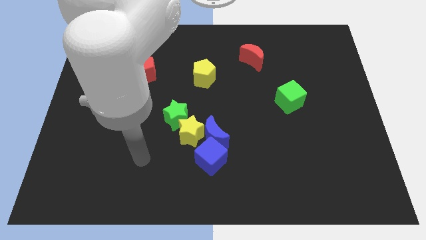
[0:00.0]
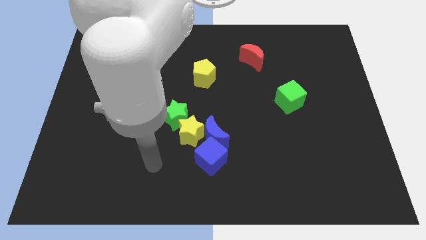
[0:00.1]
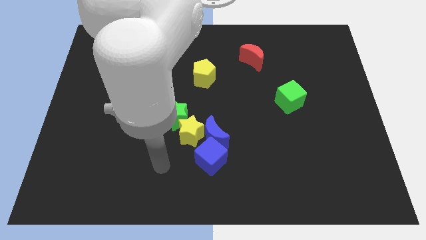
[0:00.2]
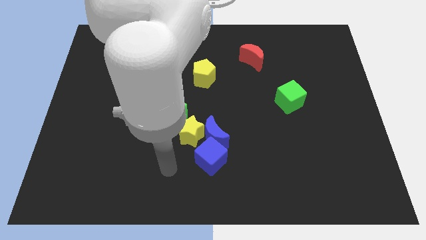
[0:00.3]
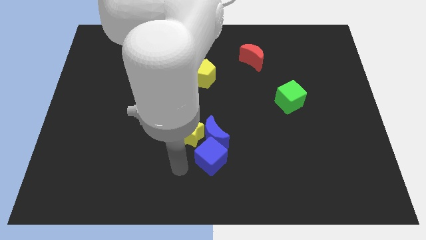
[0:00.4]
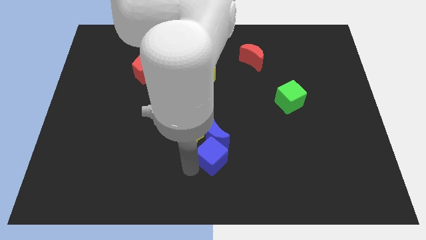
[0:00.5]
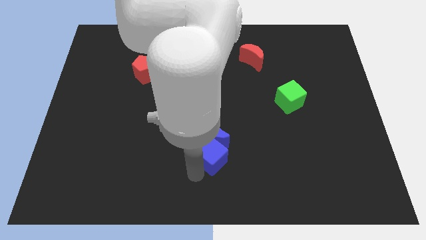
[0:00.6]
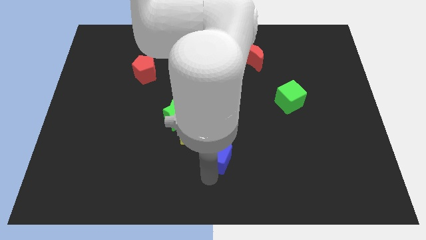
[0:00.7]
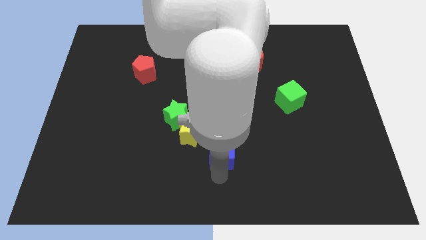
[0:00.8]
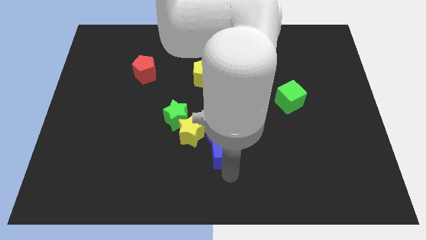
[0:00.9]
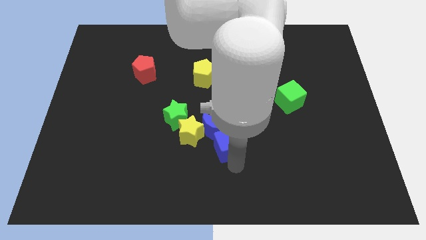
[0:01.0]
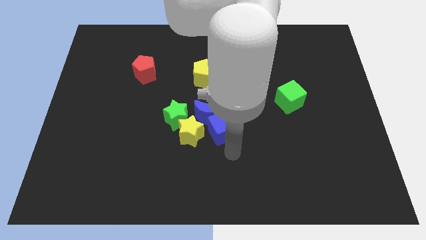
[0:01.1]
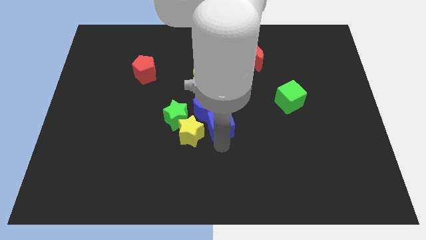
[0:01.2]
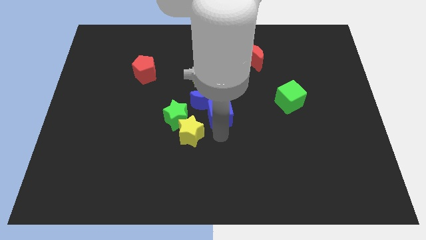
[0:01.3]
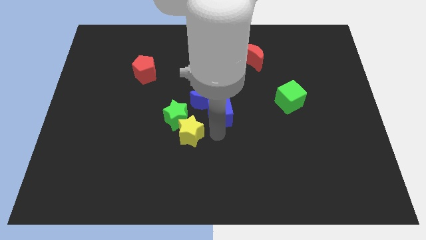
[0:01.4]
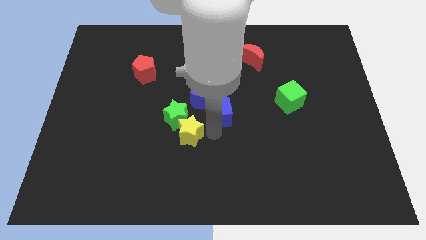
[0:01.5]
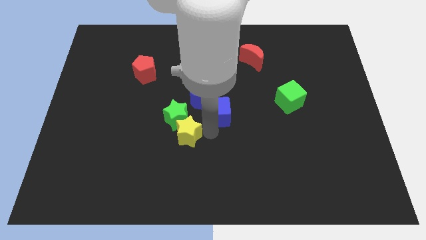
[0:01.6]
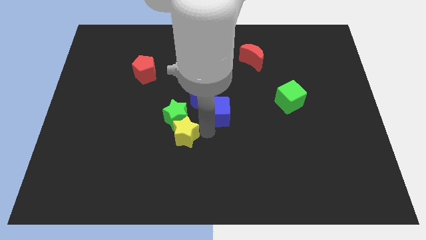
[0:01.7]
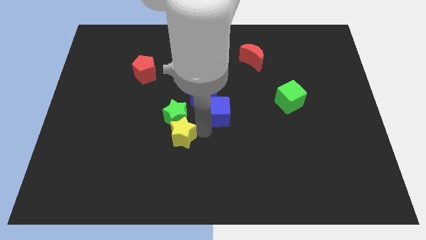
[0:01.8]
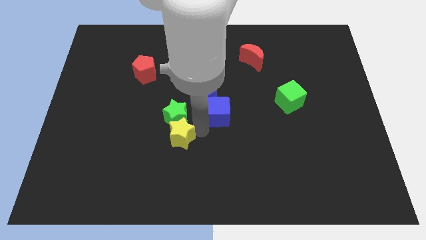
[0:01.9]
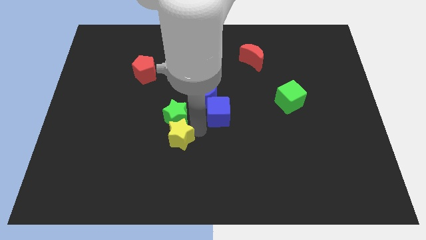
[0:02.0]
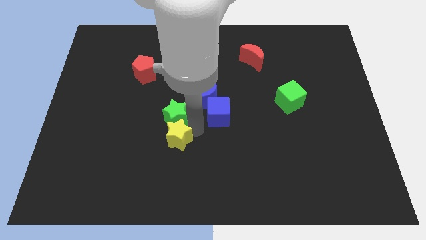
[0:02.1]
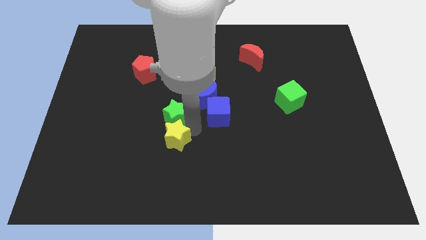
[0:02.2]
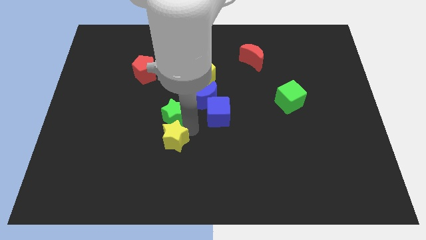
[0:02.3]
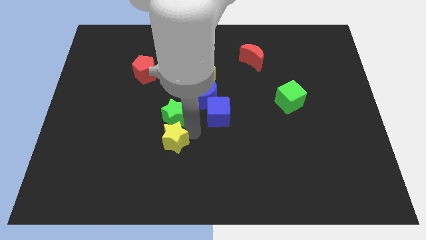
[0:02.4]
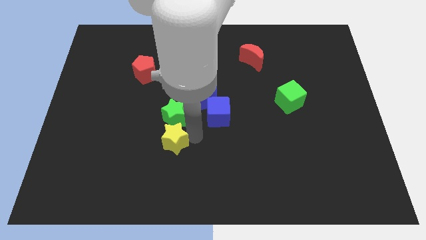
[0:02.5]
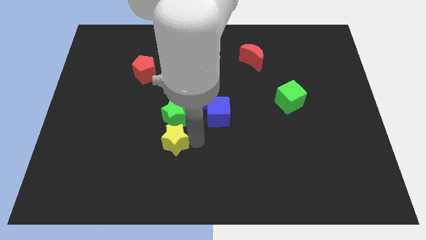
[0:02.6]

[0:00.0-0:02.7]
separate the yellow star from the green star, blue moon, and blue cube

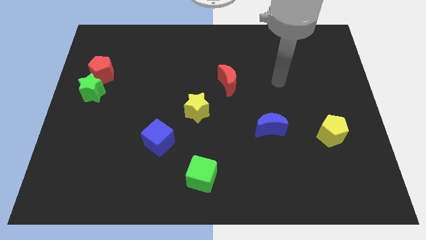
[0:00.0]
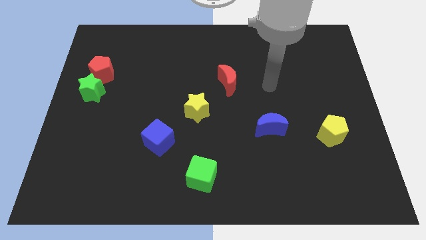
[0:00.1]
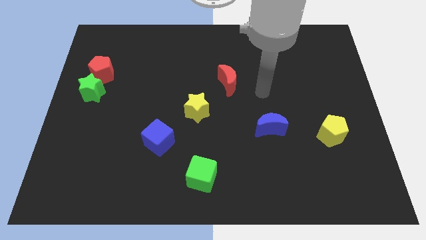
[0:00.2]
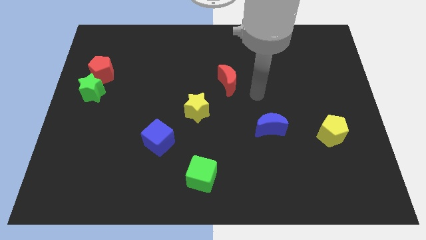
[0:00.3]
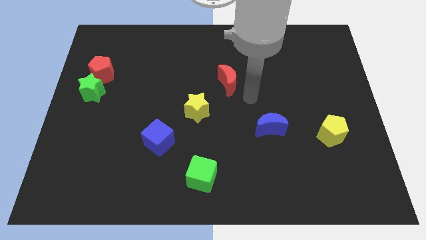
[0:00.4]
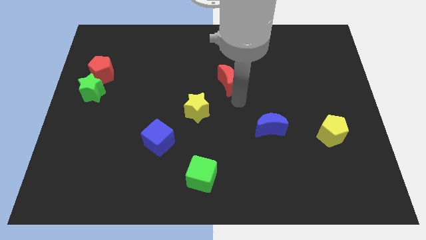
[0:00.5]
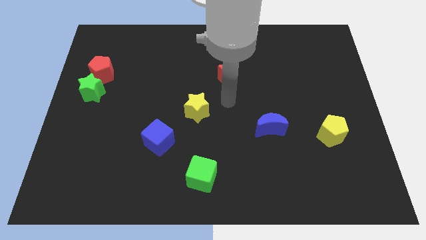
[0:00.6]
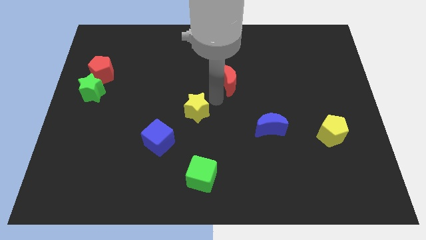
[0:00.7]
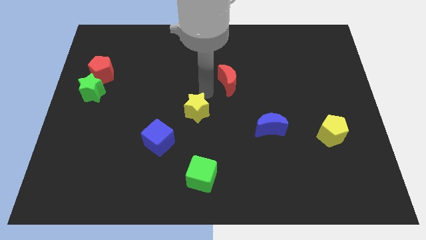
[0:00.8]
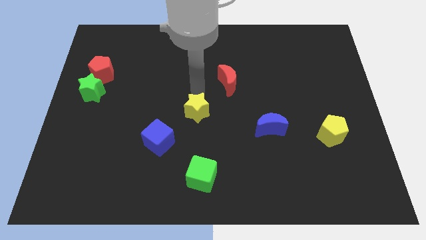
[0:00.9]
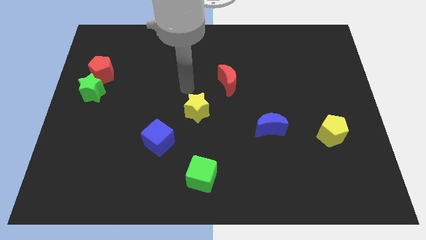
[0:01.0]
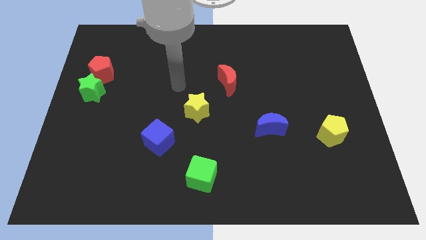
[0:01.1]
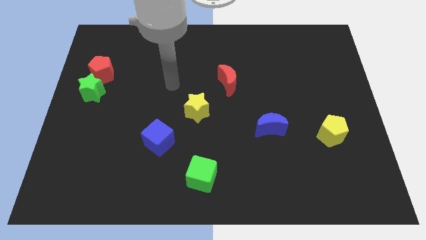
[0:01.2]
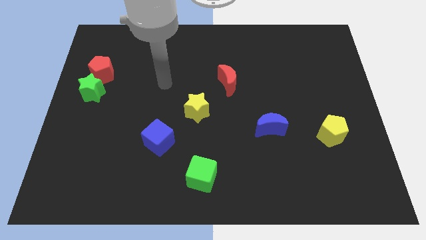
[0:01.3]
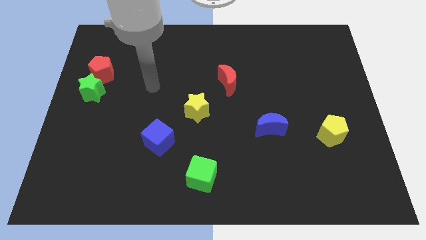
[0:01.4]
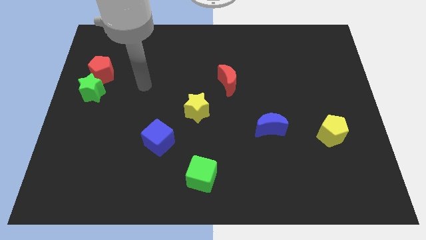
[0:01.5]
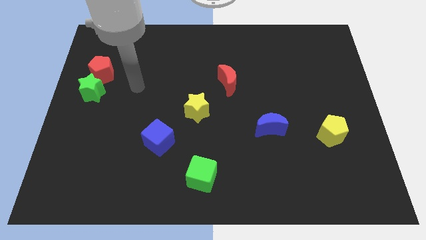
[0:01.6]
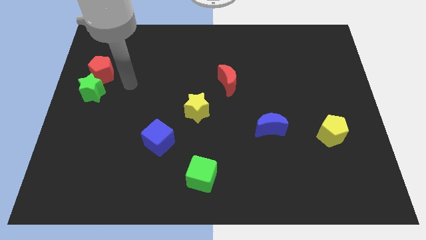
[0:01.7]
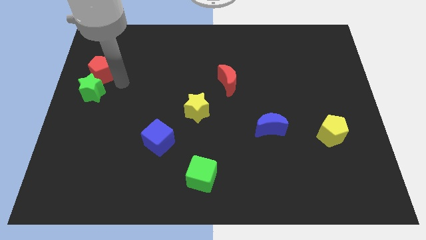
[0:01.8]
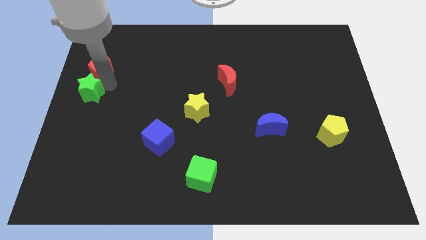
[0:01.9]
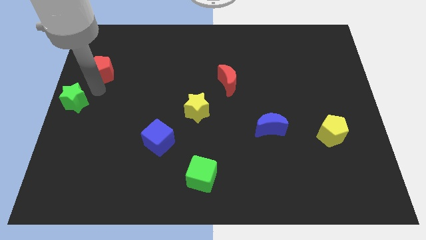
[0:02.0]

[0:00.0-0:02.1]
pull the red pentagon apart from the green star

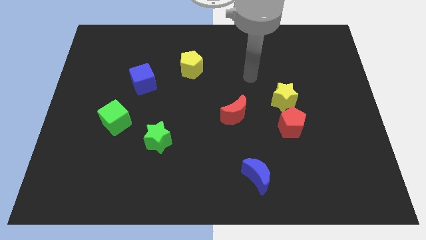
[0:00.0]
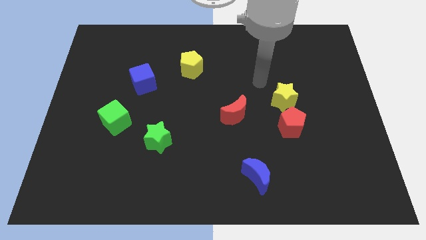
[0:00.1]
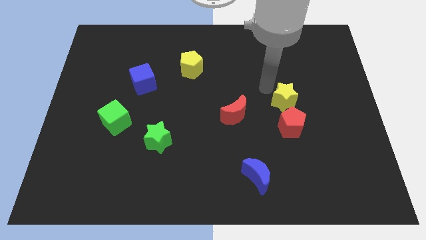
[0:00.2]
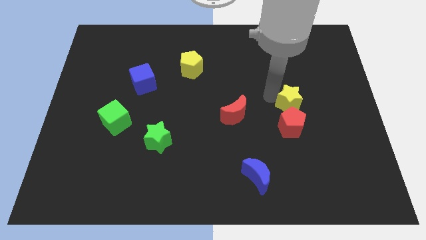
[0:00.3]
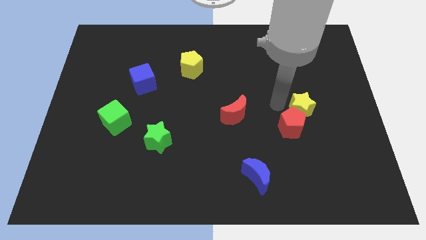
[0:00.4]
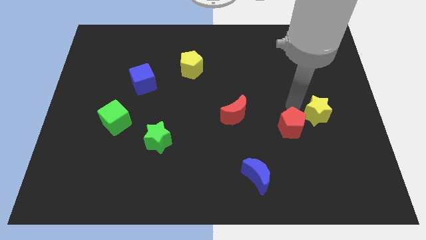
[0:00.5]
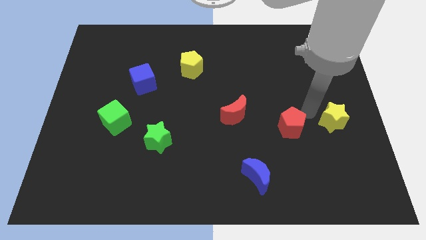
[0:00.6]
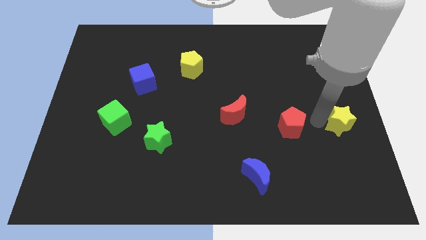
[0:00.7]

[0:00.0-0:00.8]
move the red pentagon away from the yellow star

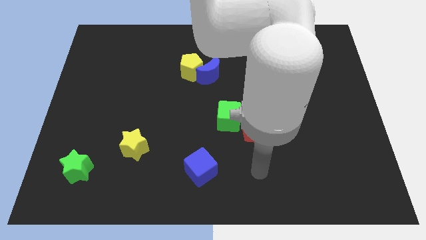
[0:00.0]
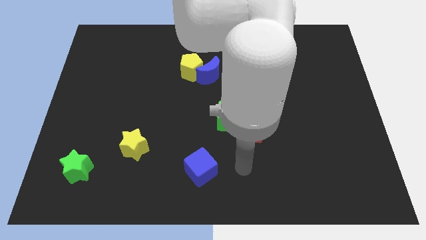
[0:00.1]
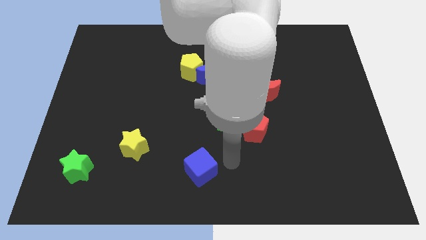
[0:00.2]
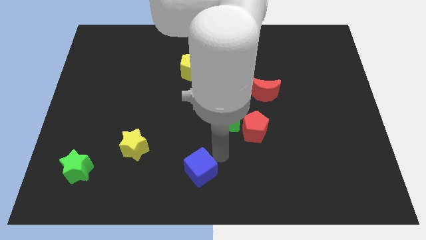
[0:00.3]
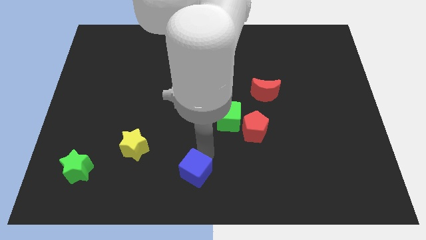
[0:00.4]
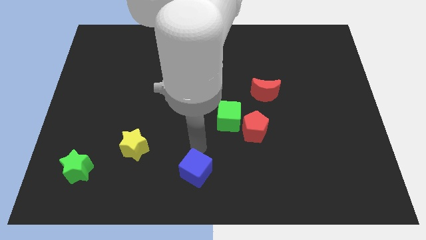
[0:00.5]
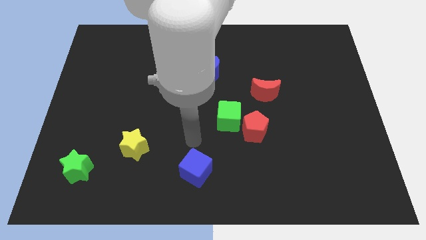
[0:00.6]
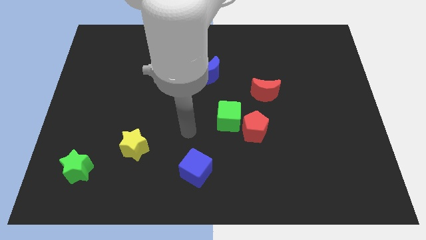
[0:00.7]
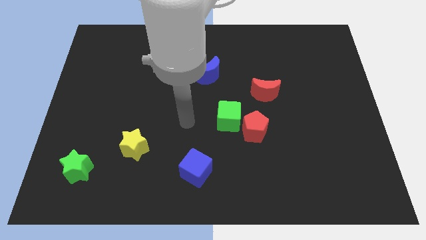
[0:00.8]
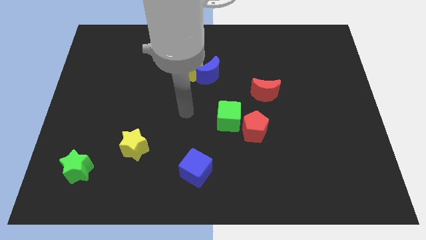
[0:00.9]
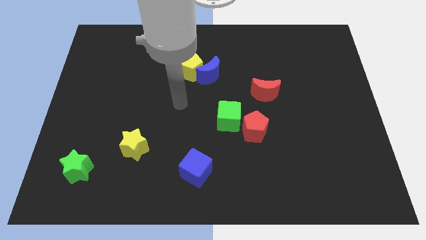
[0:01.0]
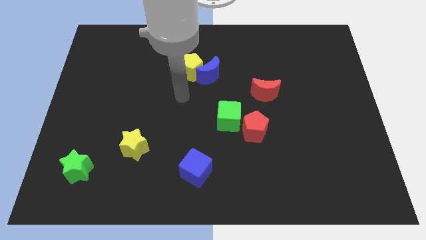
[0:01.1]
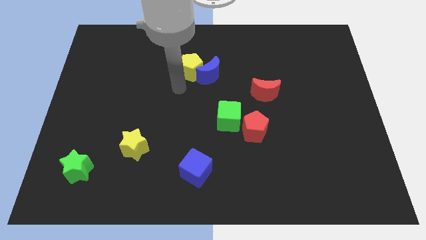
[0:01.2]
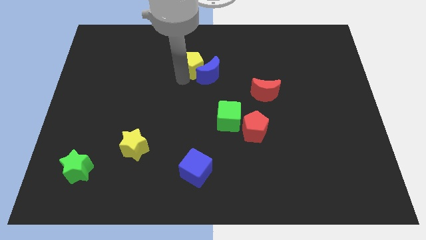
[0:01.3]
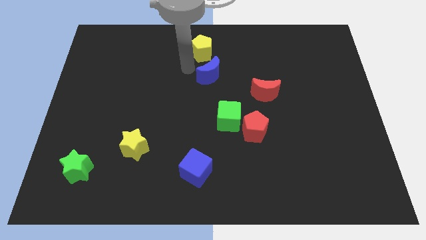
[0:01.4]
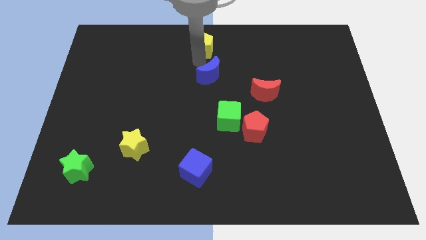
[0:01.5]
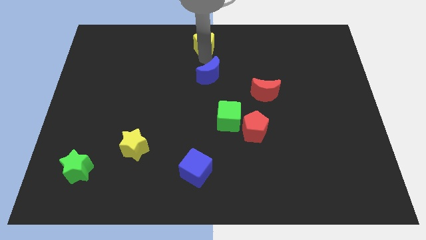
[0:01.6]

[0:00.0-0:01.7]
pull the blue moon apart from the yellow pentagon

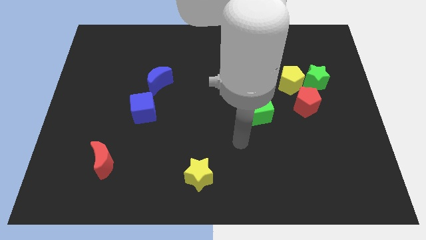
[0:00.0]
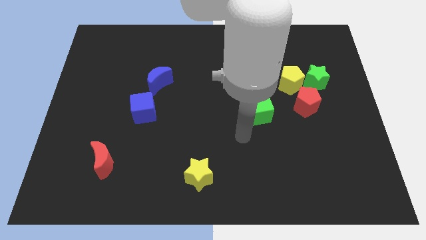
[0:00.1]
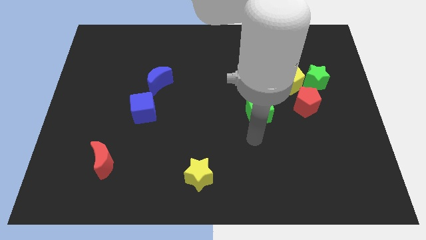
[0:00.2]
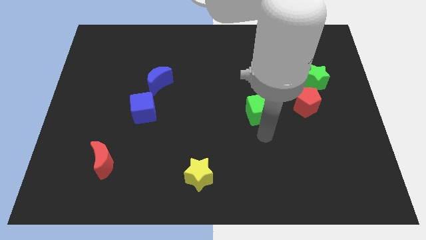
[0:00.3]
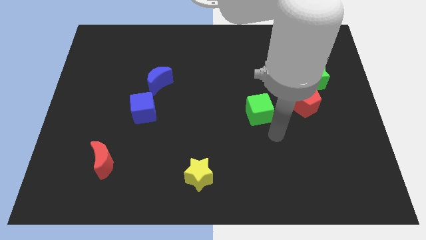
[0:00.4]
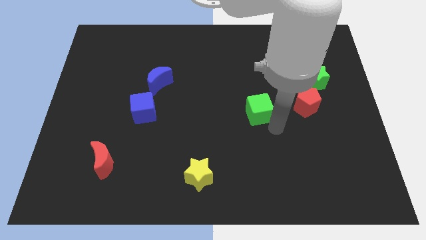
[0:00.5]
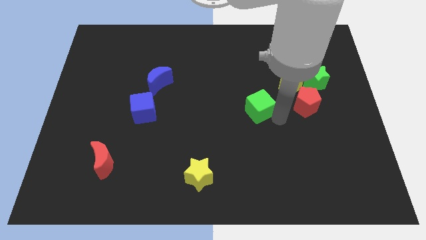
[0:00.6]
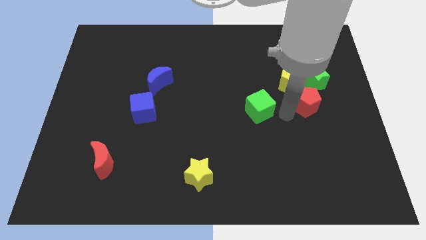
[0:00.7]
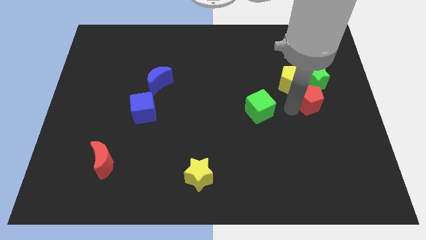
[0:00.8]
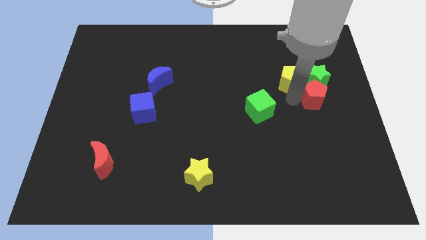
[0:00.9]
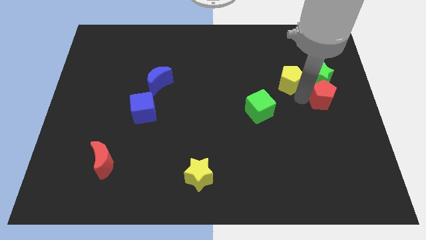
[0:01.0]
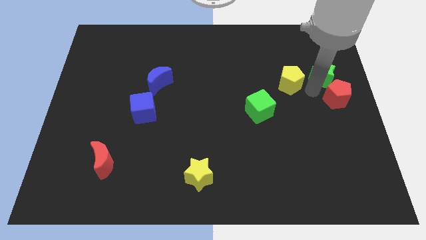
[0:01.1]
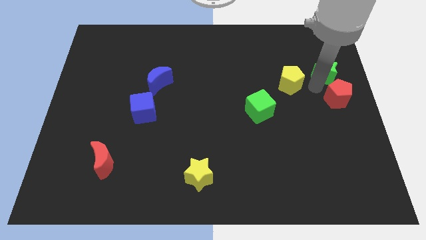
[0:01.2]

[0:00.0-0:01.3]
separate the yellow pentagon from the green star and red pentagon

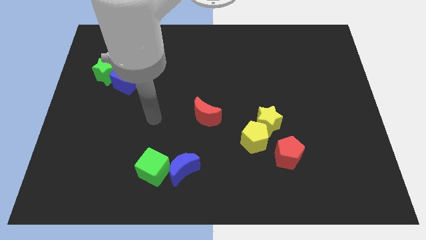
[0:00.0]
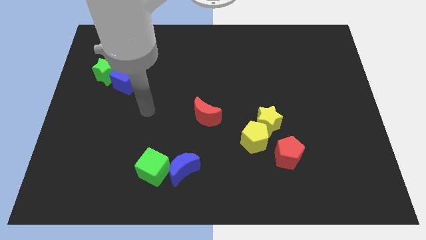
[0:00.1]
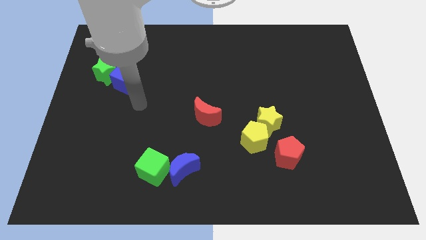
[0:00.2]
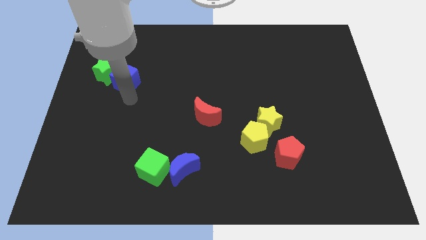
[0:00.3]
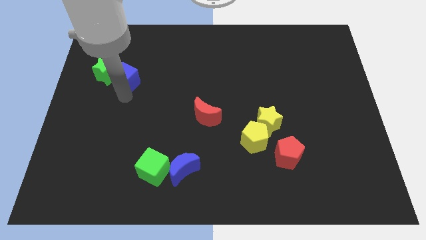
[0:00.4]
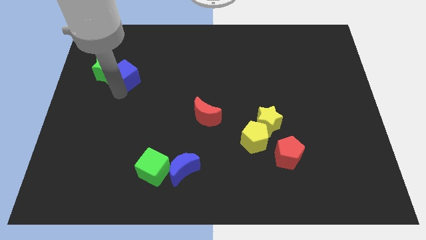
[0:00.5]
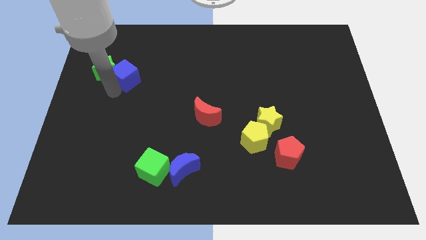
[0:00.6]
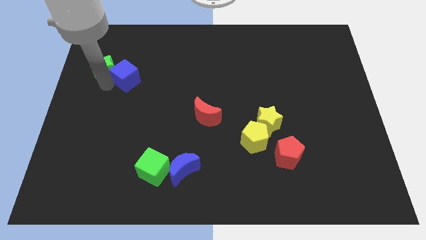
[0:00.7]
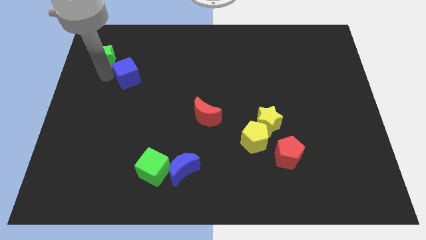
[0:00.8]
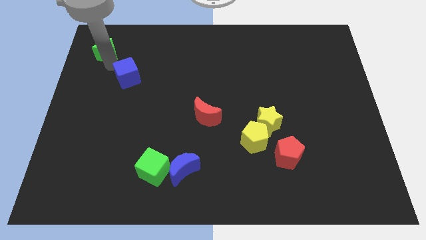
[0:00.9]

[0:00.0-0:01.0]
move the blue cube away from the green star
